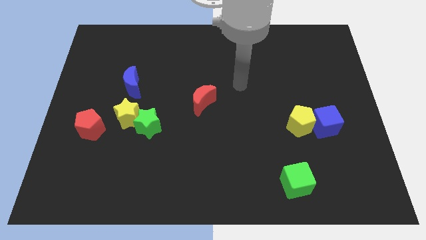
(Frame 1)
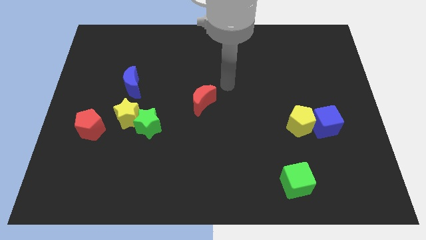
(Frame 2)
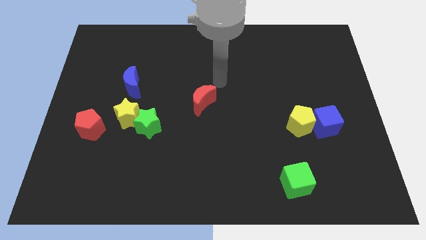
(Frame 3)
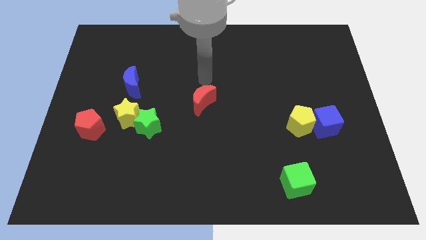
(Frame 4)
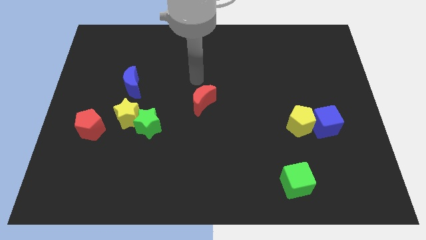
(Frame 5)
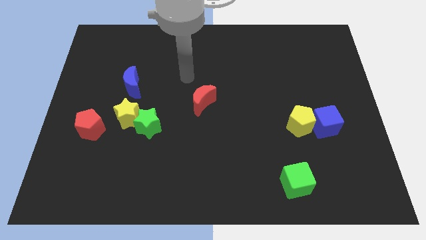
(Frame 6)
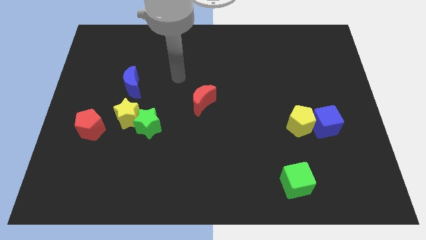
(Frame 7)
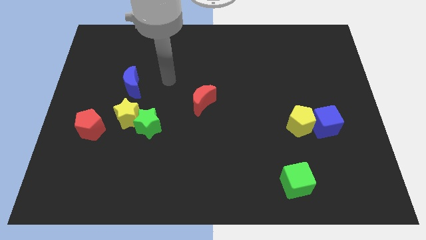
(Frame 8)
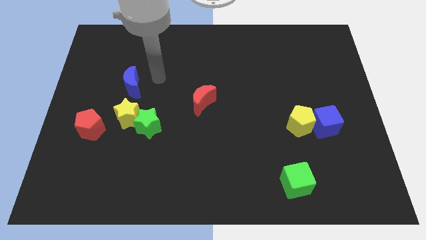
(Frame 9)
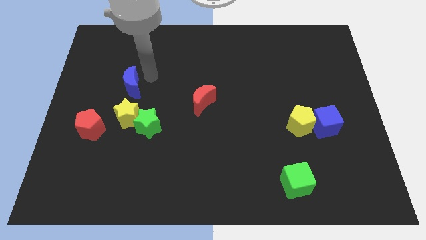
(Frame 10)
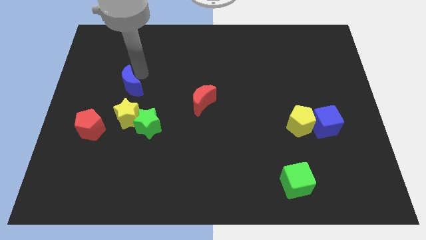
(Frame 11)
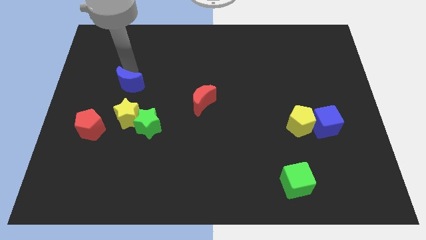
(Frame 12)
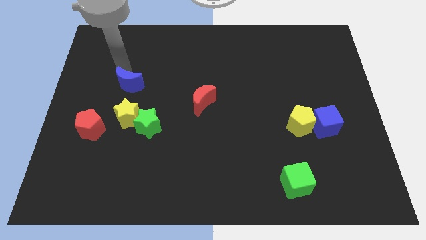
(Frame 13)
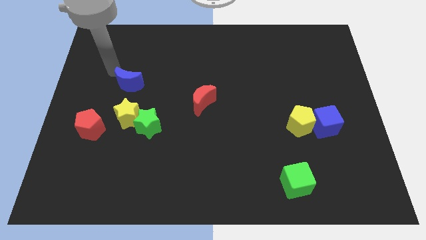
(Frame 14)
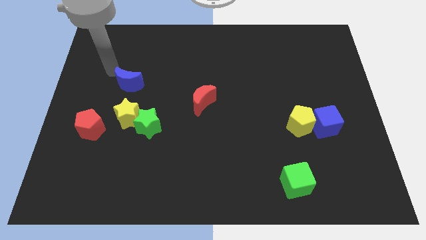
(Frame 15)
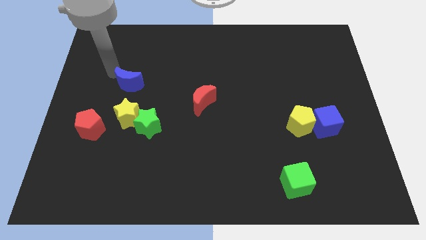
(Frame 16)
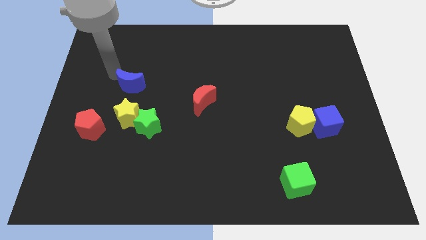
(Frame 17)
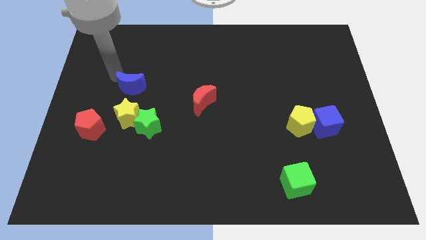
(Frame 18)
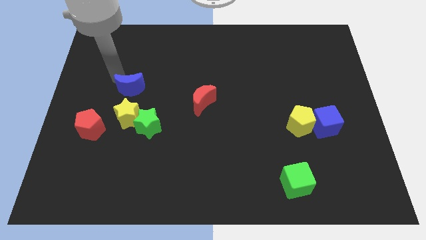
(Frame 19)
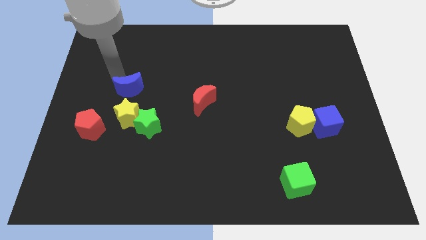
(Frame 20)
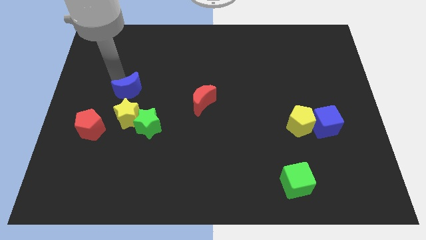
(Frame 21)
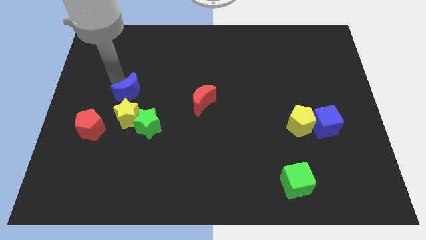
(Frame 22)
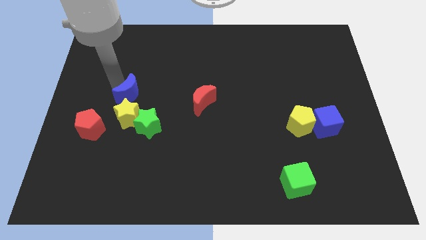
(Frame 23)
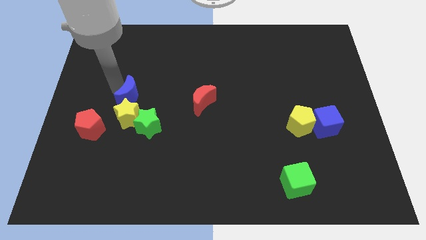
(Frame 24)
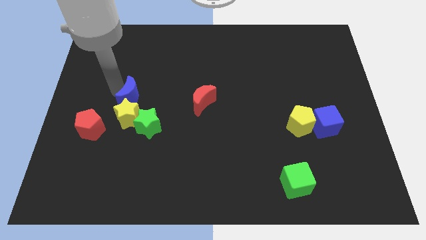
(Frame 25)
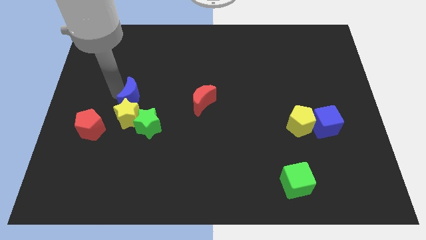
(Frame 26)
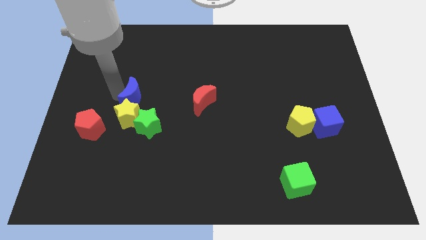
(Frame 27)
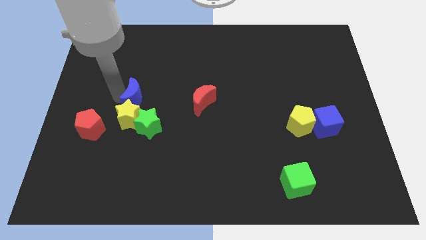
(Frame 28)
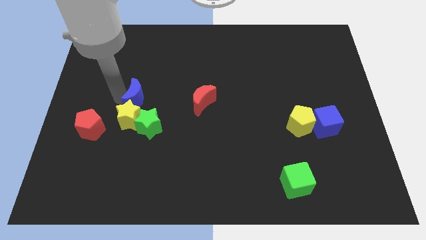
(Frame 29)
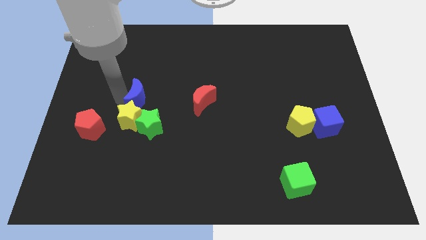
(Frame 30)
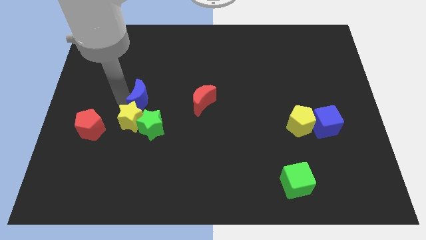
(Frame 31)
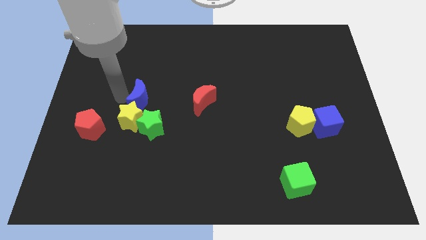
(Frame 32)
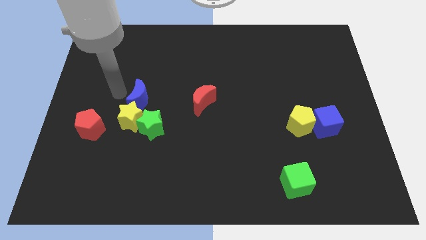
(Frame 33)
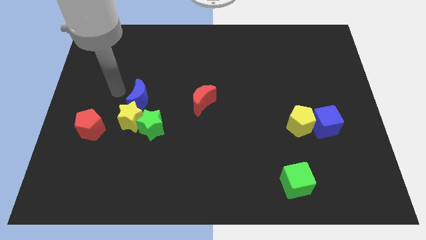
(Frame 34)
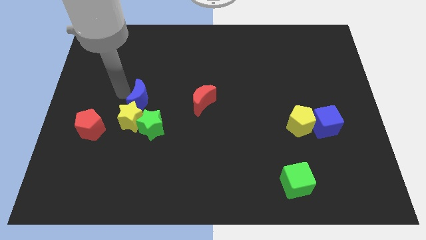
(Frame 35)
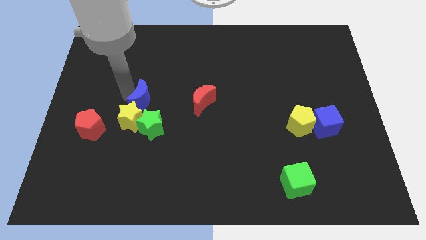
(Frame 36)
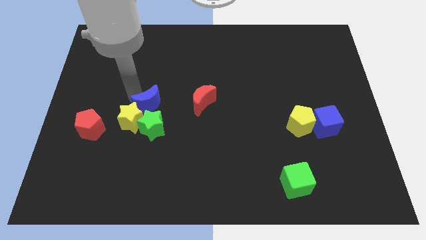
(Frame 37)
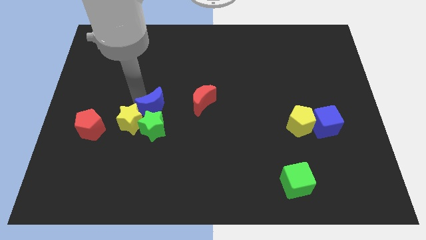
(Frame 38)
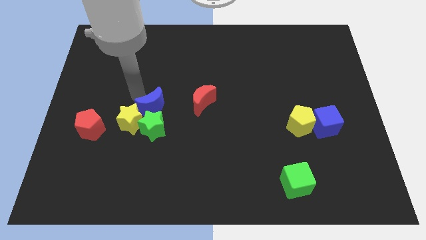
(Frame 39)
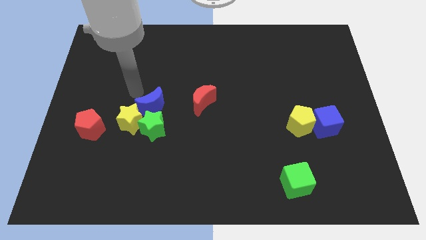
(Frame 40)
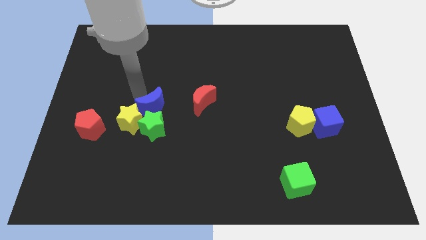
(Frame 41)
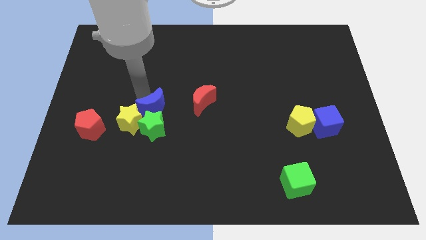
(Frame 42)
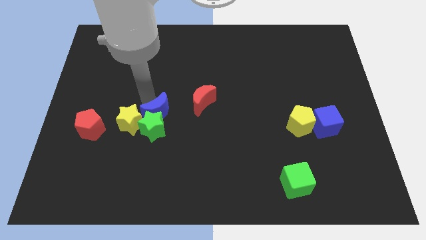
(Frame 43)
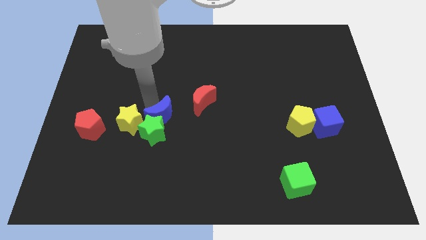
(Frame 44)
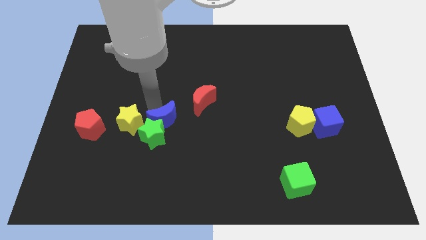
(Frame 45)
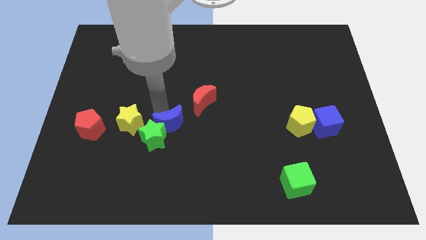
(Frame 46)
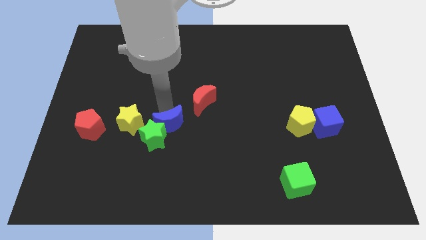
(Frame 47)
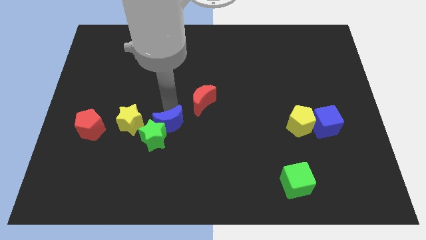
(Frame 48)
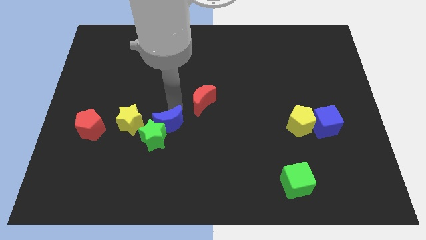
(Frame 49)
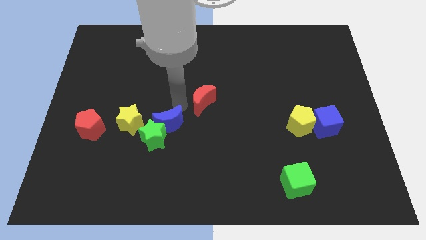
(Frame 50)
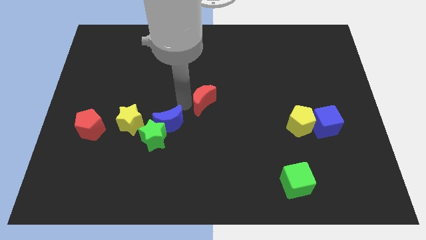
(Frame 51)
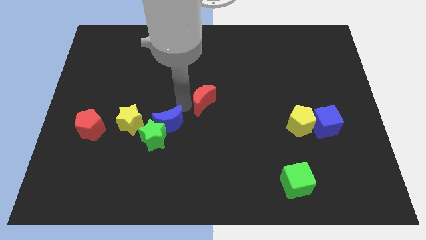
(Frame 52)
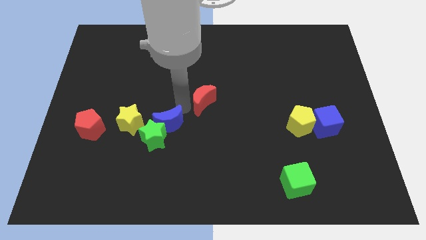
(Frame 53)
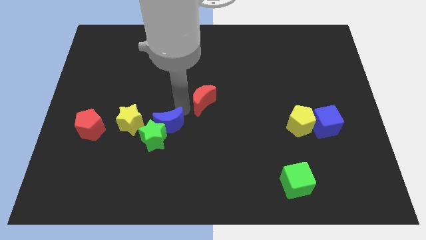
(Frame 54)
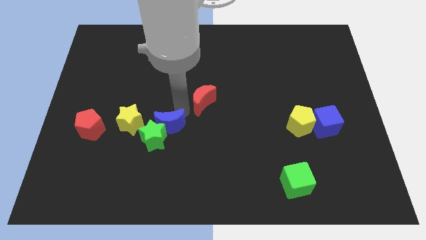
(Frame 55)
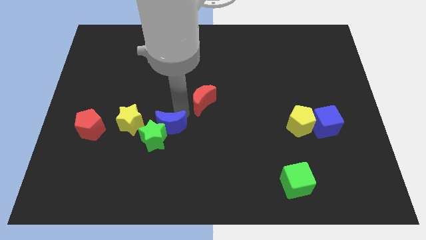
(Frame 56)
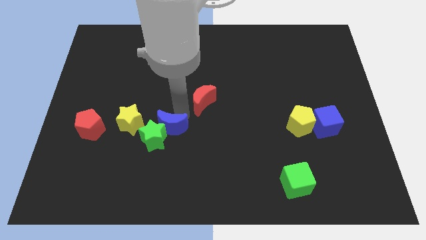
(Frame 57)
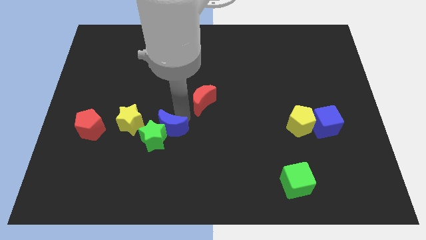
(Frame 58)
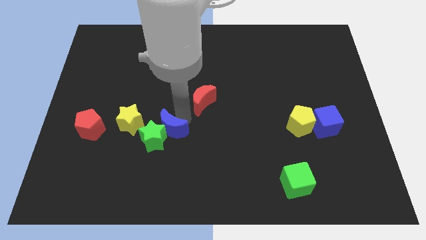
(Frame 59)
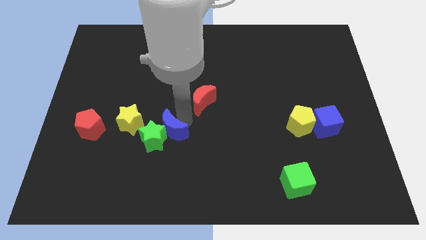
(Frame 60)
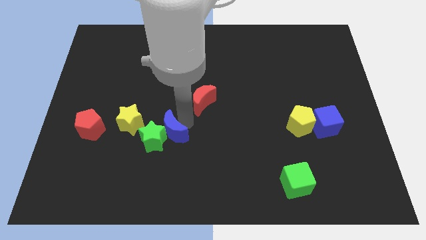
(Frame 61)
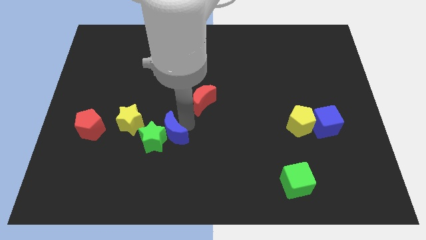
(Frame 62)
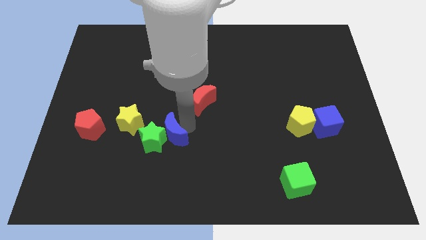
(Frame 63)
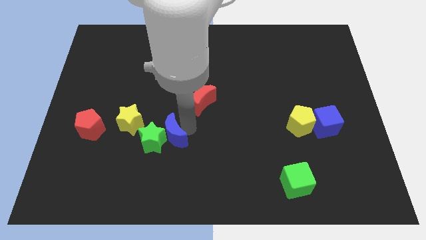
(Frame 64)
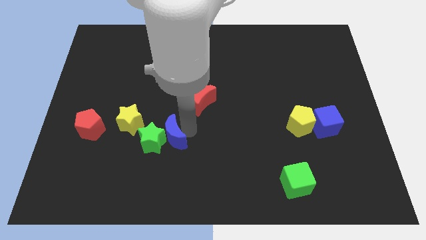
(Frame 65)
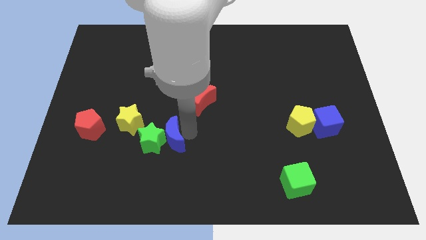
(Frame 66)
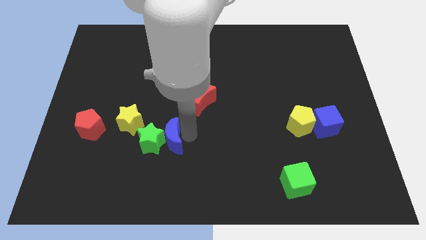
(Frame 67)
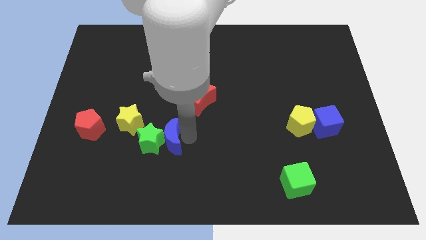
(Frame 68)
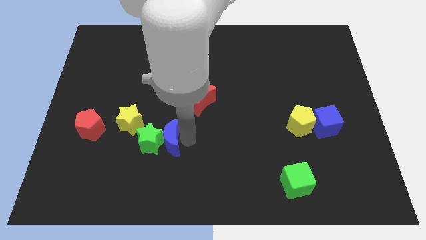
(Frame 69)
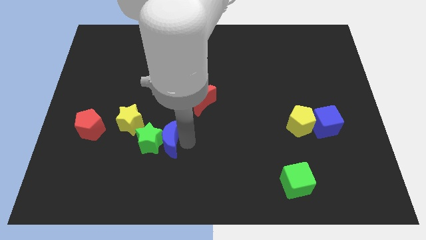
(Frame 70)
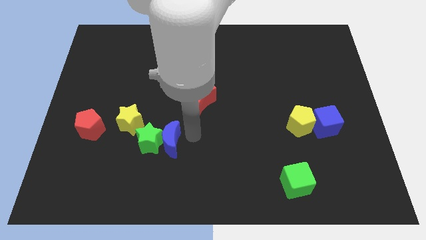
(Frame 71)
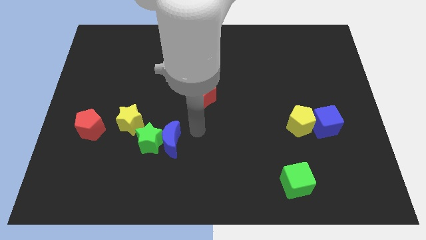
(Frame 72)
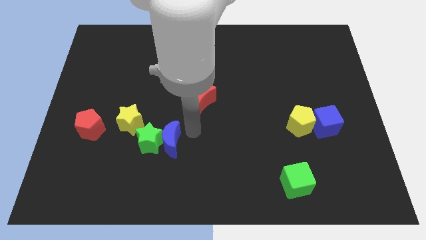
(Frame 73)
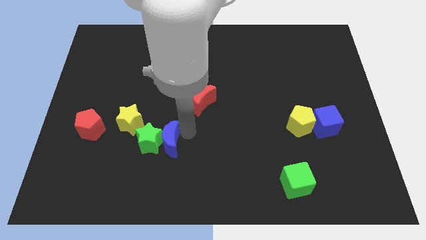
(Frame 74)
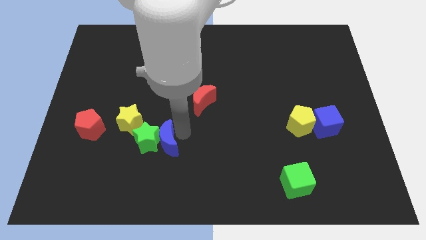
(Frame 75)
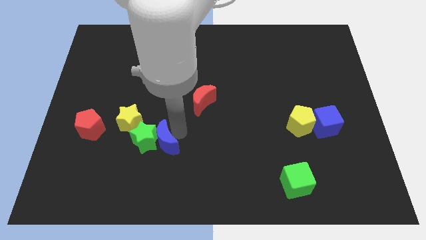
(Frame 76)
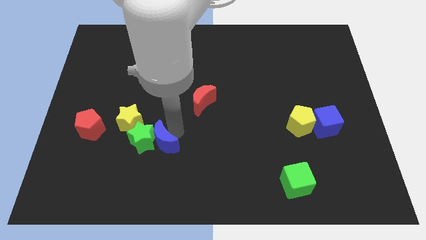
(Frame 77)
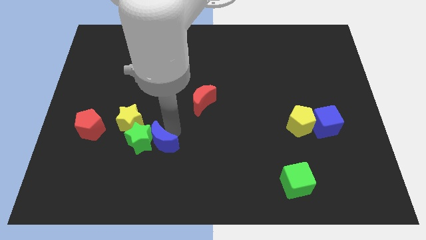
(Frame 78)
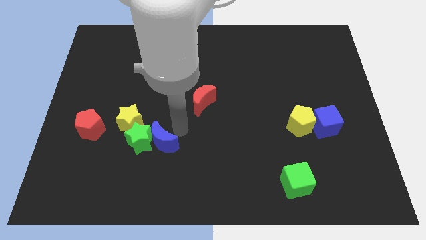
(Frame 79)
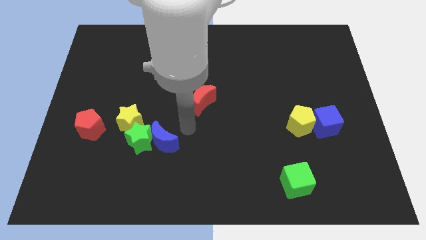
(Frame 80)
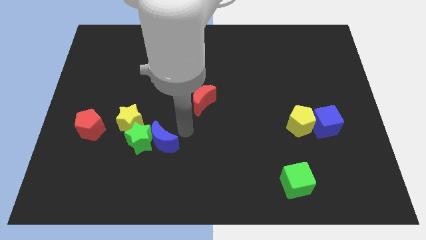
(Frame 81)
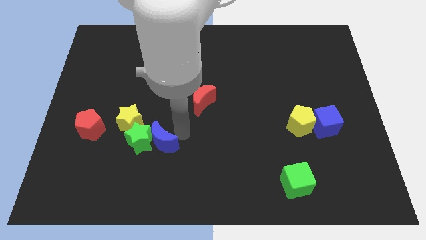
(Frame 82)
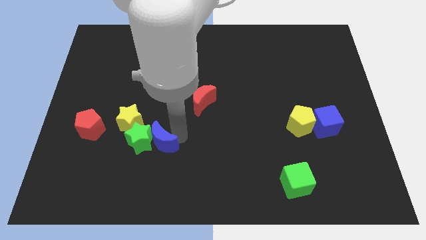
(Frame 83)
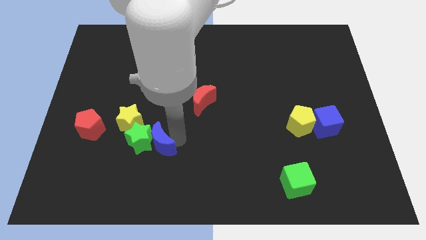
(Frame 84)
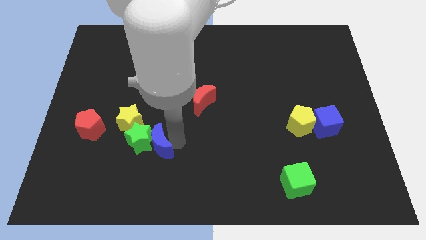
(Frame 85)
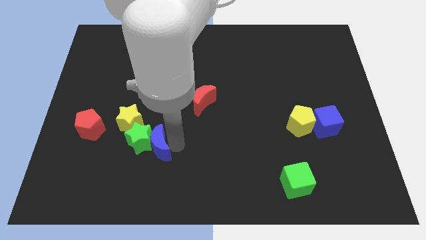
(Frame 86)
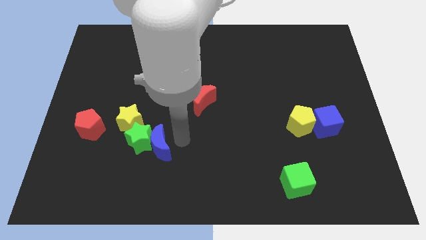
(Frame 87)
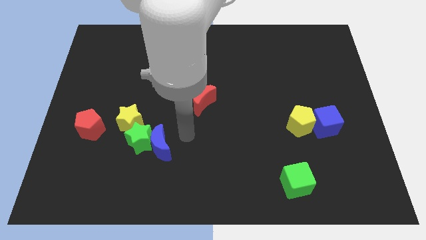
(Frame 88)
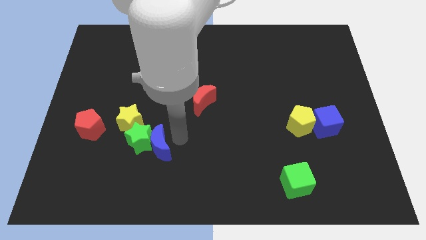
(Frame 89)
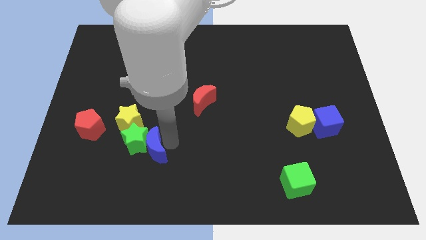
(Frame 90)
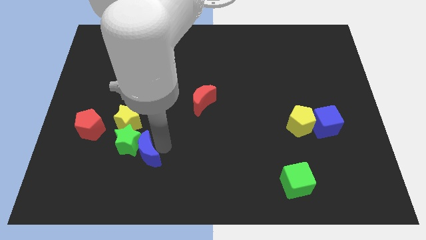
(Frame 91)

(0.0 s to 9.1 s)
move the blue moon to the bottom side of the yellow star
